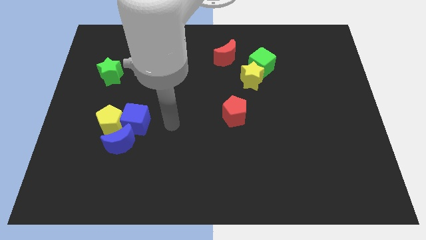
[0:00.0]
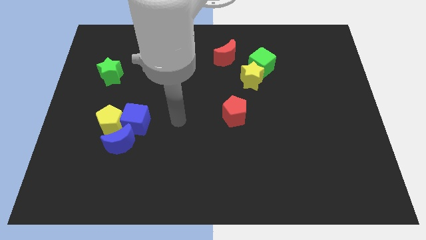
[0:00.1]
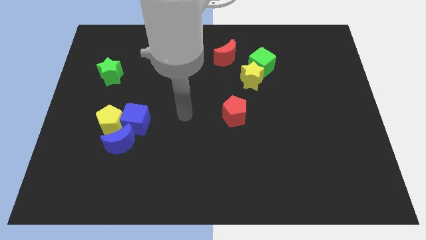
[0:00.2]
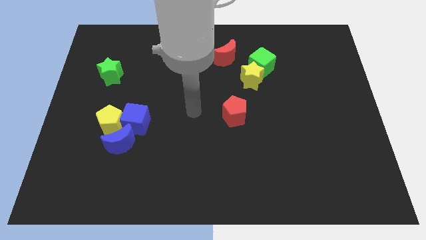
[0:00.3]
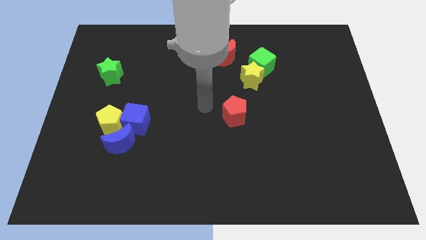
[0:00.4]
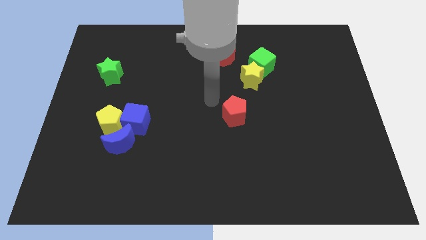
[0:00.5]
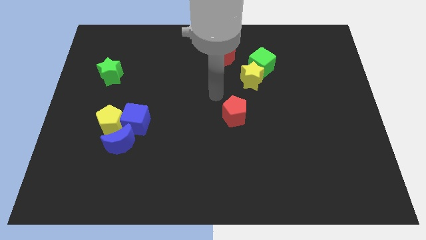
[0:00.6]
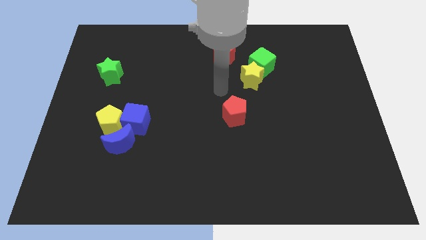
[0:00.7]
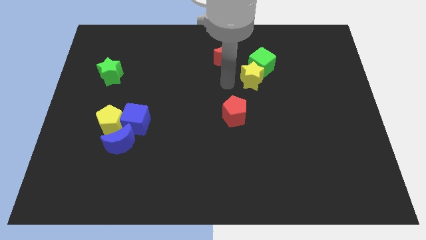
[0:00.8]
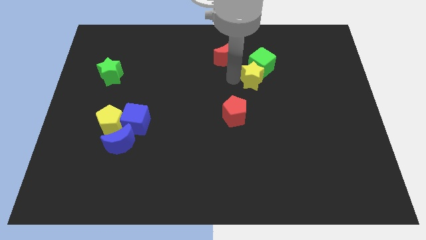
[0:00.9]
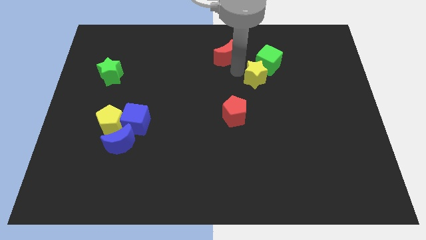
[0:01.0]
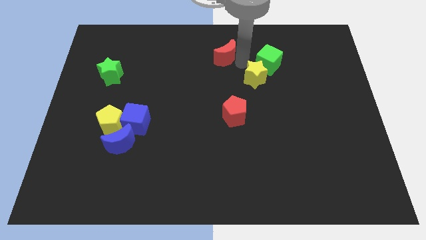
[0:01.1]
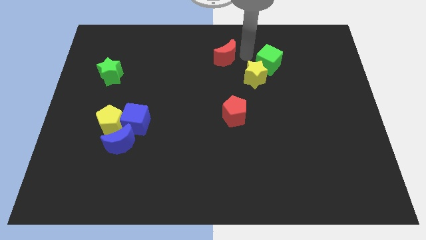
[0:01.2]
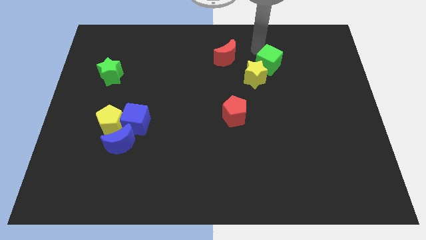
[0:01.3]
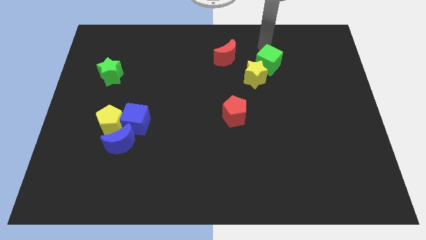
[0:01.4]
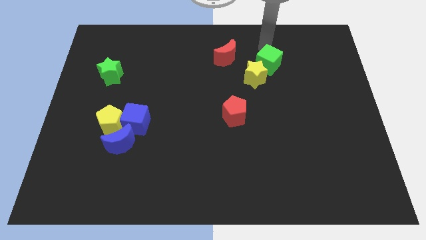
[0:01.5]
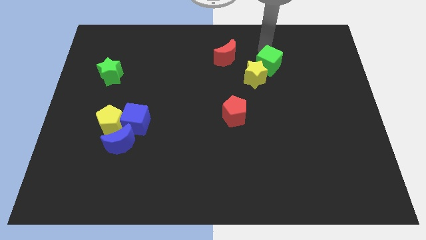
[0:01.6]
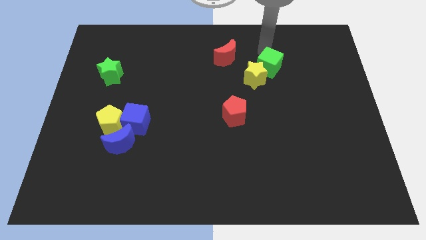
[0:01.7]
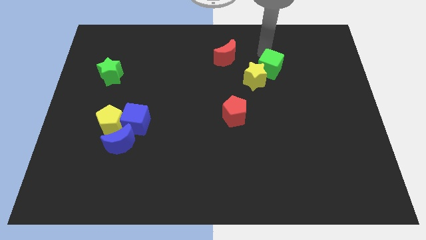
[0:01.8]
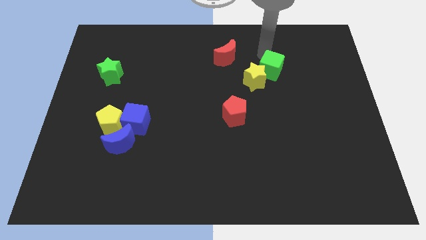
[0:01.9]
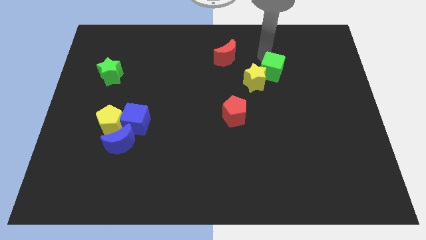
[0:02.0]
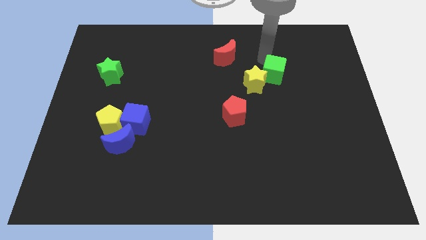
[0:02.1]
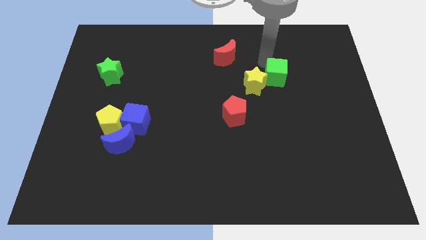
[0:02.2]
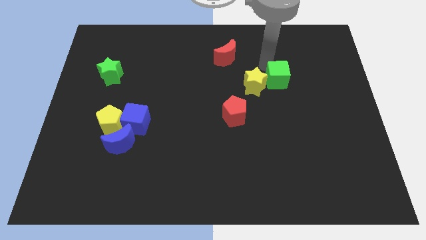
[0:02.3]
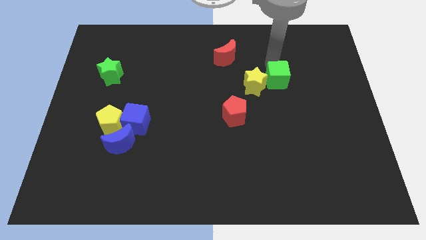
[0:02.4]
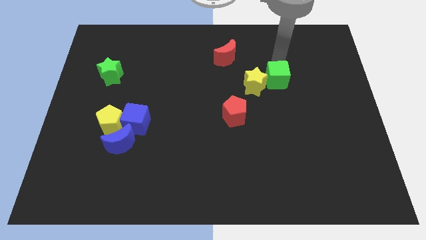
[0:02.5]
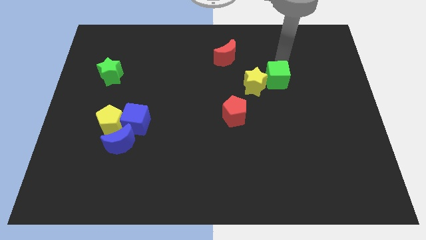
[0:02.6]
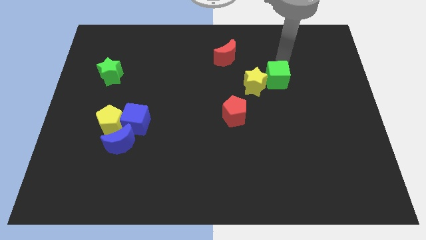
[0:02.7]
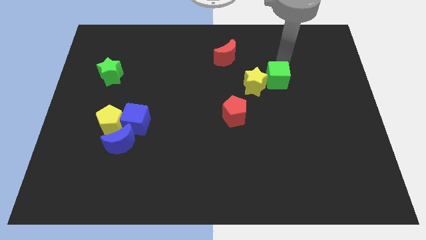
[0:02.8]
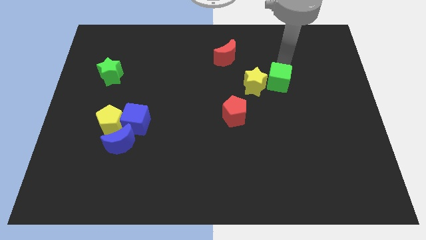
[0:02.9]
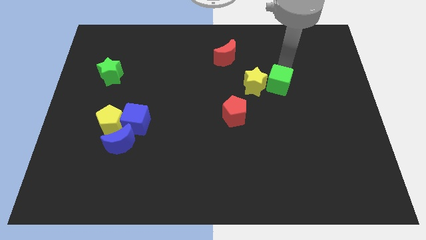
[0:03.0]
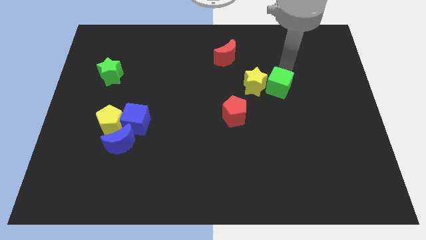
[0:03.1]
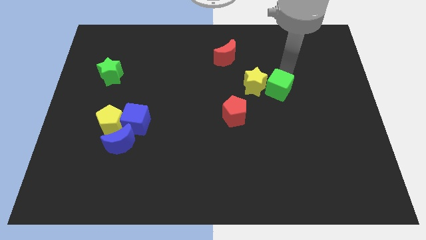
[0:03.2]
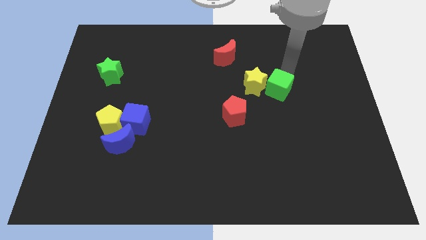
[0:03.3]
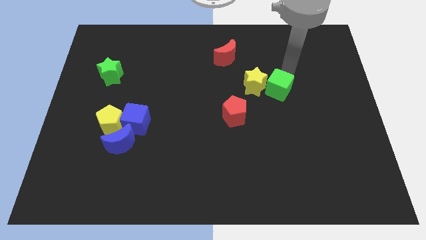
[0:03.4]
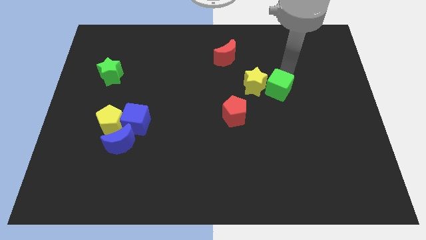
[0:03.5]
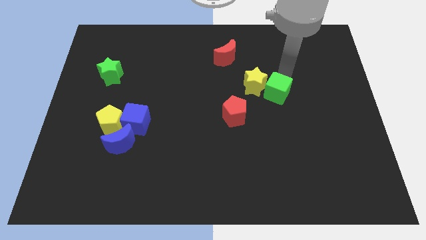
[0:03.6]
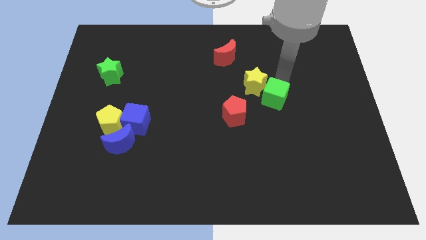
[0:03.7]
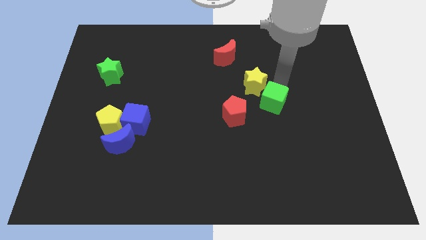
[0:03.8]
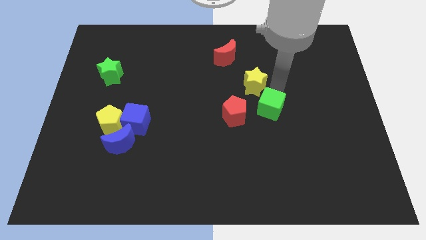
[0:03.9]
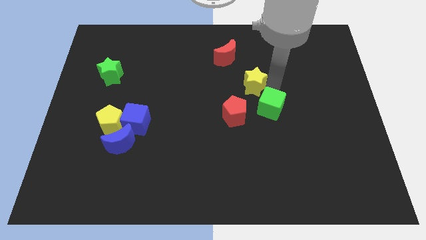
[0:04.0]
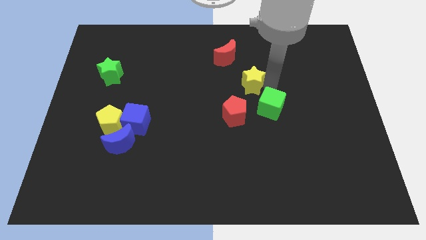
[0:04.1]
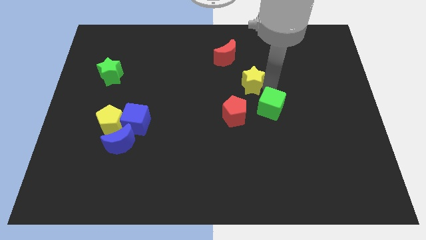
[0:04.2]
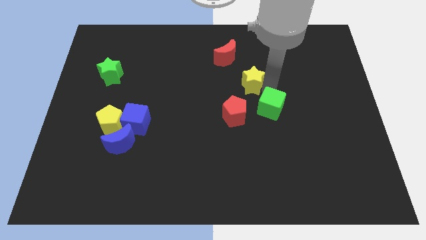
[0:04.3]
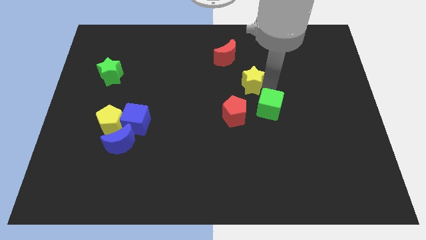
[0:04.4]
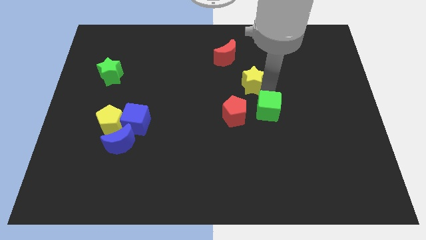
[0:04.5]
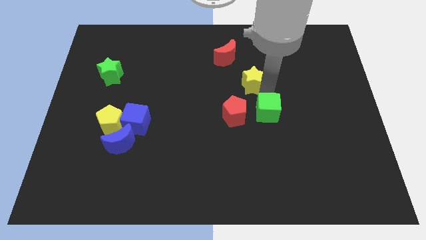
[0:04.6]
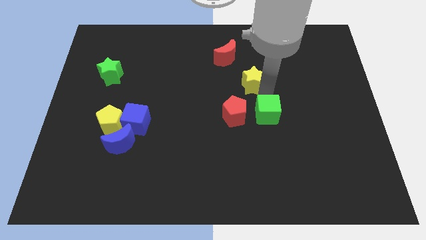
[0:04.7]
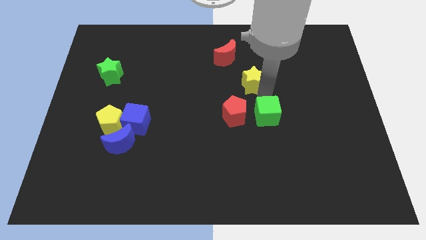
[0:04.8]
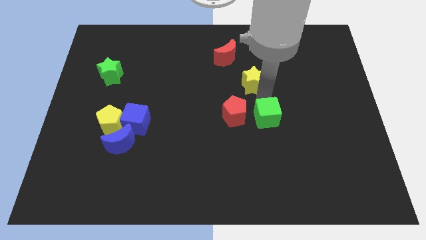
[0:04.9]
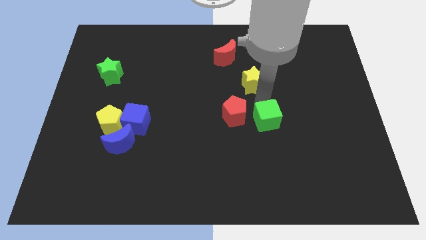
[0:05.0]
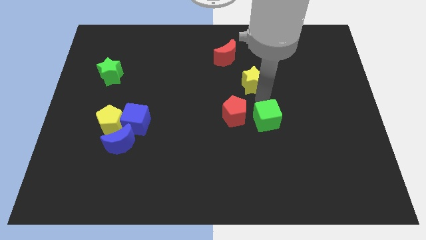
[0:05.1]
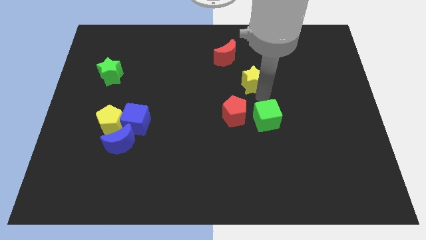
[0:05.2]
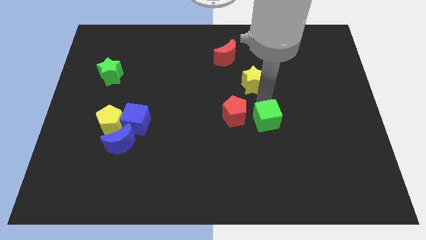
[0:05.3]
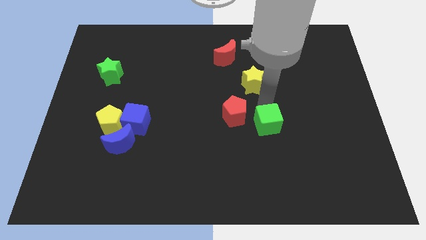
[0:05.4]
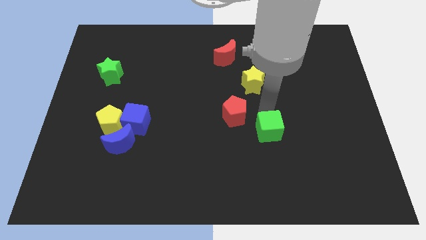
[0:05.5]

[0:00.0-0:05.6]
move the green cube down

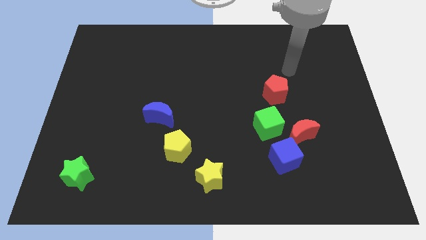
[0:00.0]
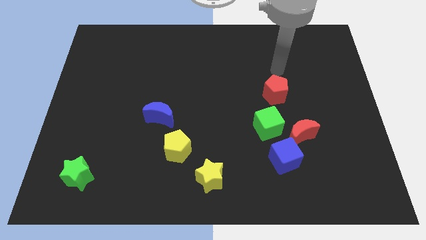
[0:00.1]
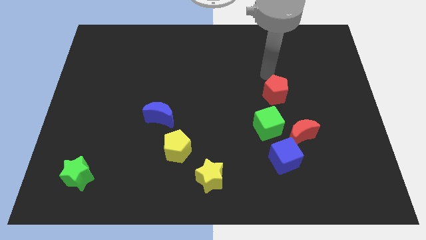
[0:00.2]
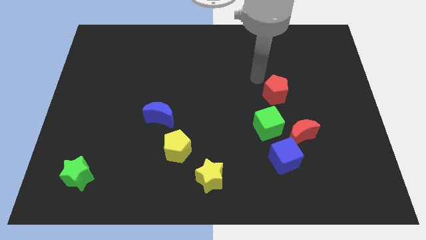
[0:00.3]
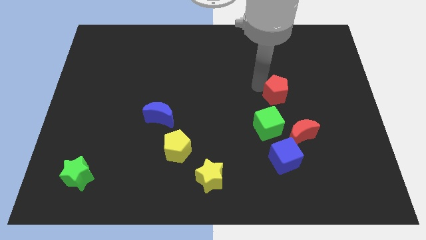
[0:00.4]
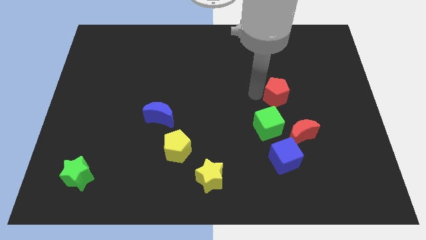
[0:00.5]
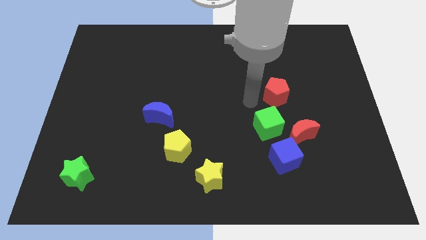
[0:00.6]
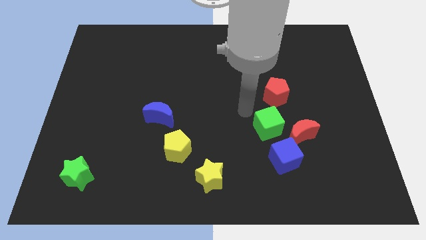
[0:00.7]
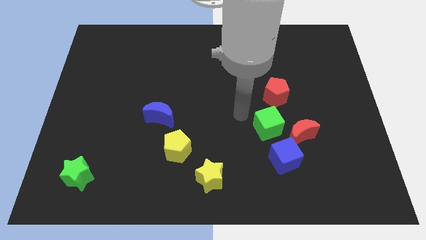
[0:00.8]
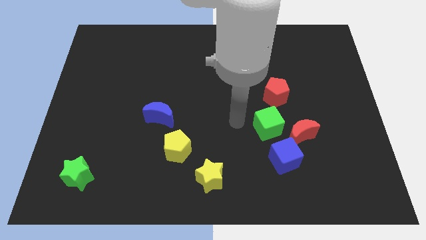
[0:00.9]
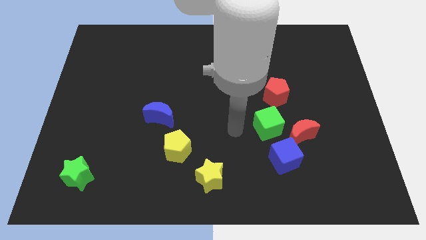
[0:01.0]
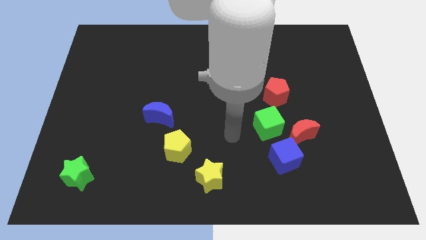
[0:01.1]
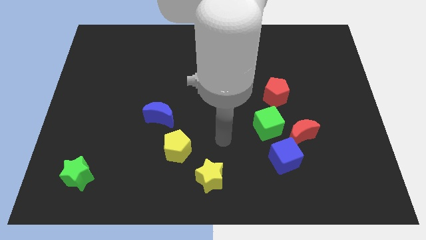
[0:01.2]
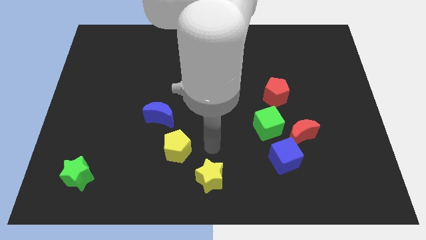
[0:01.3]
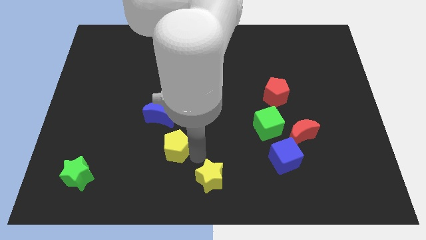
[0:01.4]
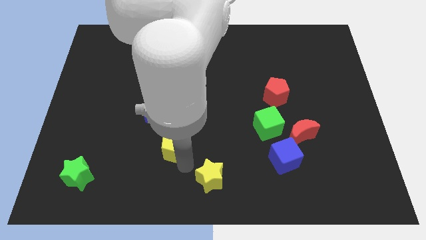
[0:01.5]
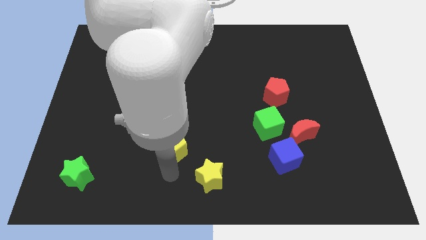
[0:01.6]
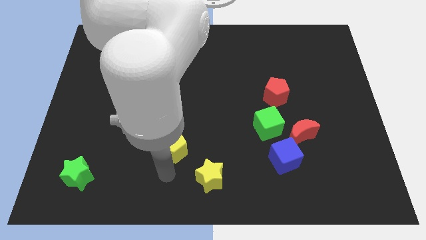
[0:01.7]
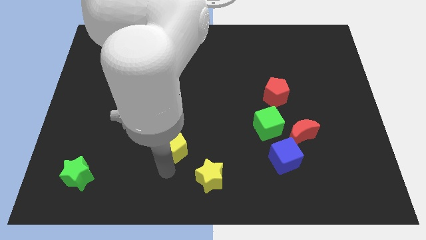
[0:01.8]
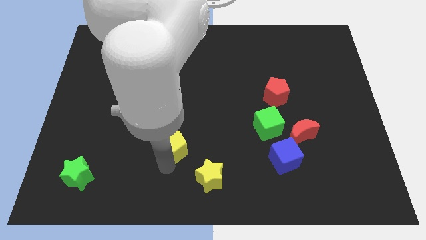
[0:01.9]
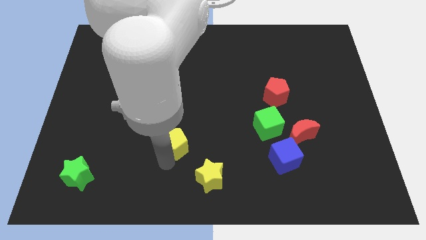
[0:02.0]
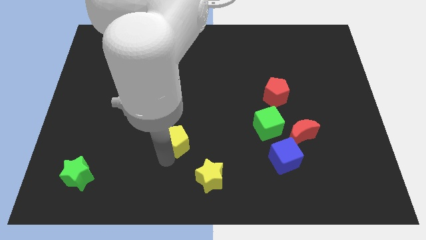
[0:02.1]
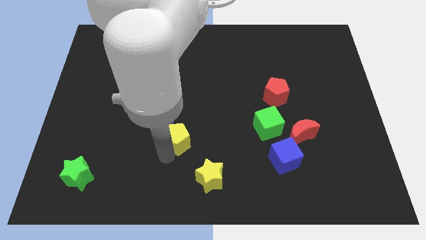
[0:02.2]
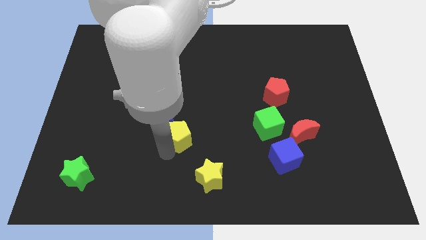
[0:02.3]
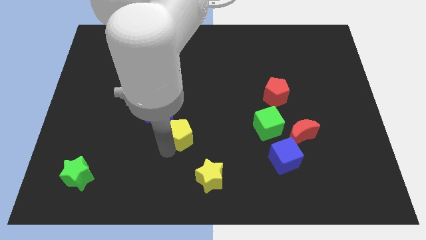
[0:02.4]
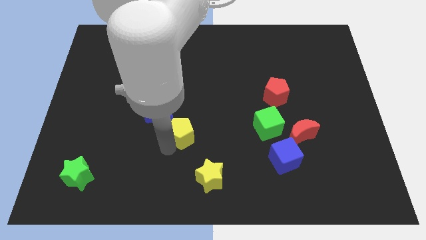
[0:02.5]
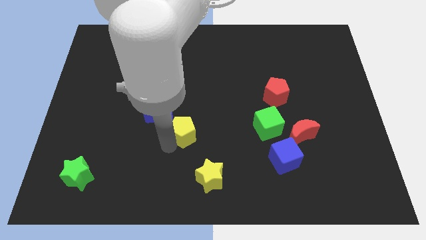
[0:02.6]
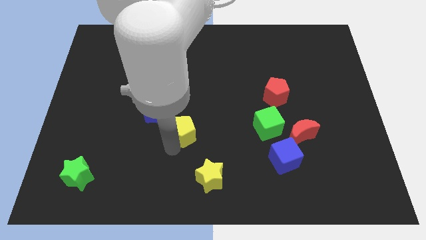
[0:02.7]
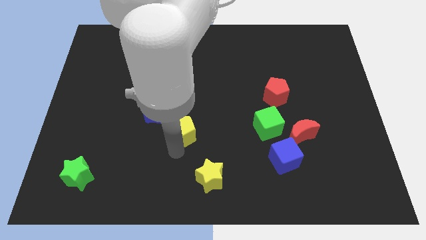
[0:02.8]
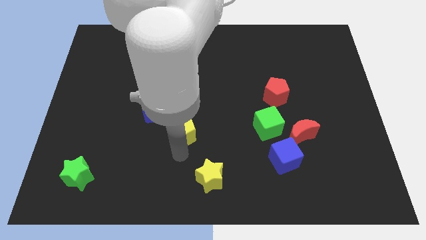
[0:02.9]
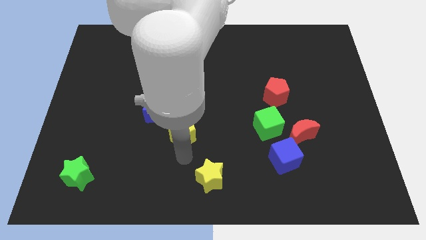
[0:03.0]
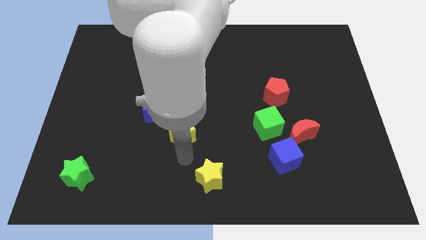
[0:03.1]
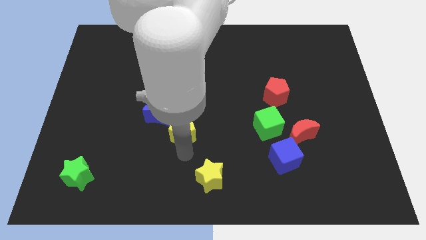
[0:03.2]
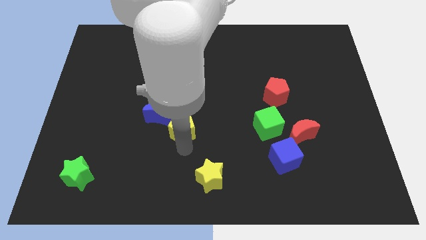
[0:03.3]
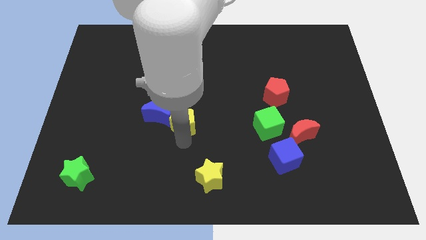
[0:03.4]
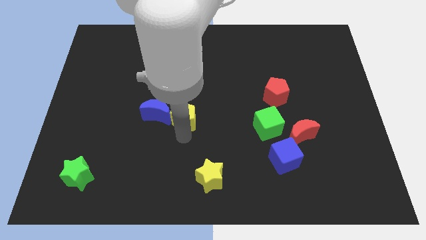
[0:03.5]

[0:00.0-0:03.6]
slide the yellow pentagon somewhat up
